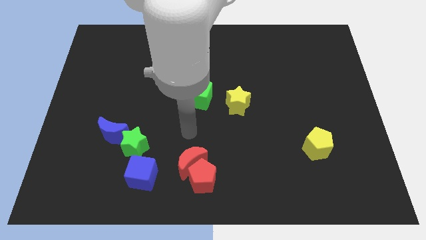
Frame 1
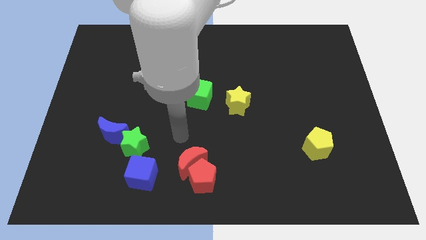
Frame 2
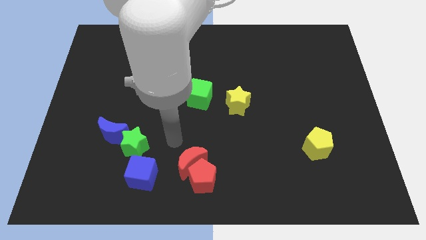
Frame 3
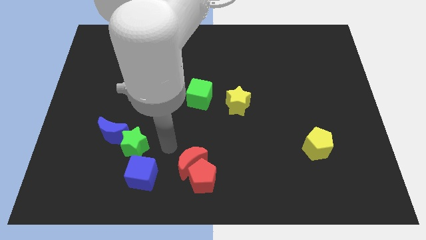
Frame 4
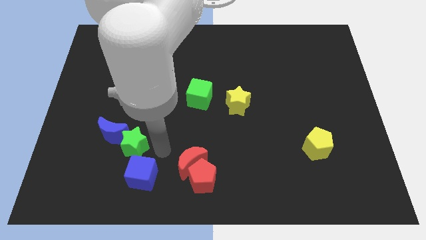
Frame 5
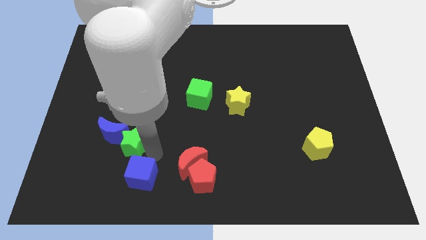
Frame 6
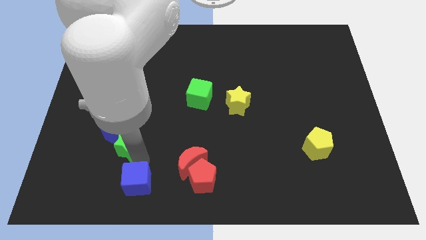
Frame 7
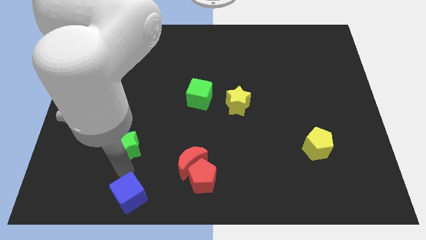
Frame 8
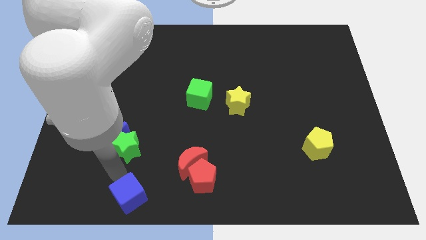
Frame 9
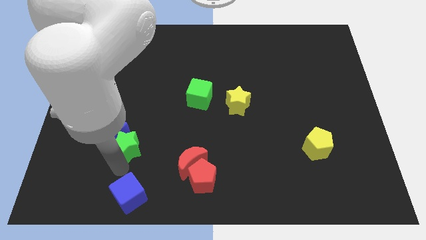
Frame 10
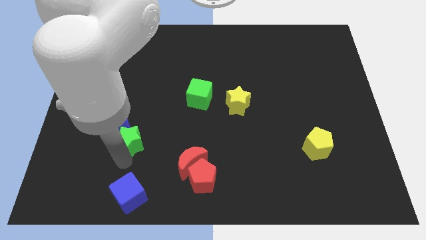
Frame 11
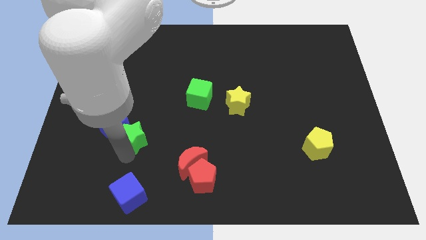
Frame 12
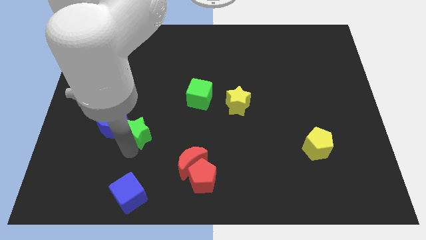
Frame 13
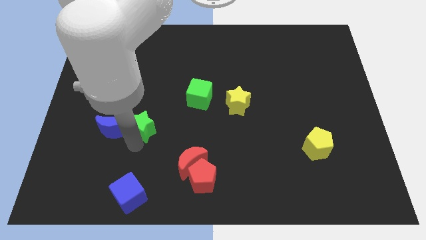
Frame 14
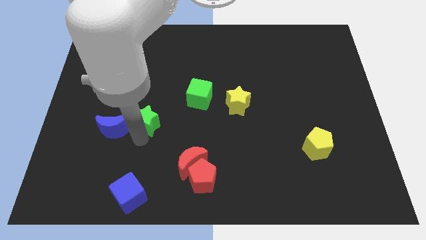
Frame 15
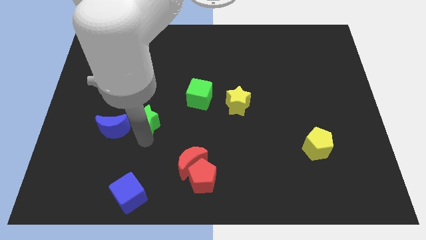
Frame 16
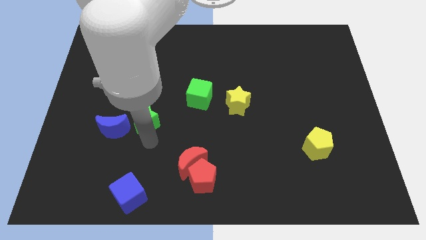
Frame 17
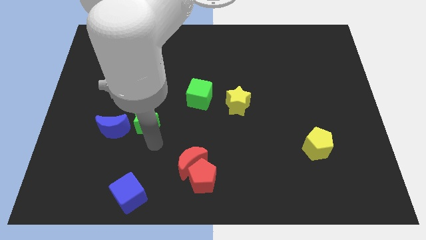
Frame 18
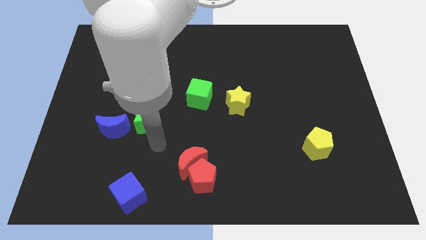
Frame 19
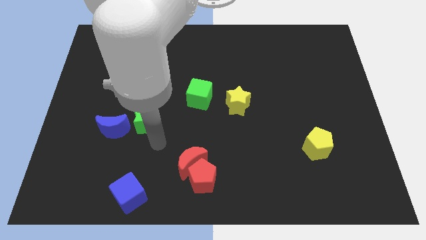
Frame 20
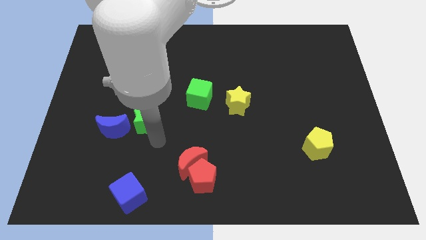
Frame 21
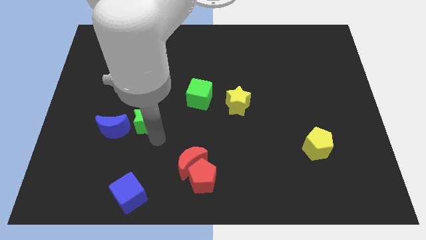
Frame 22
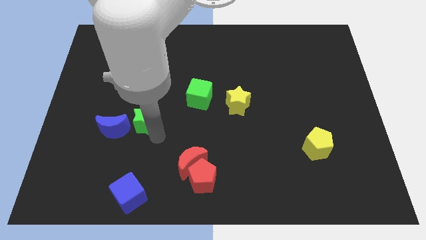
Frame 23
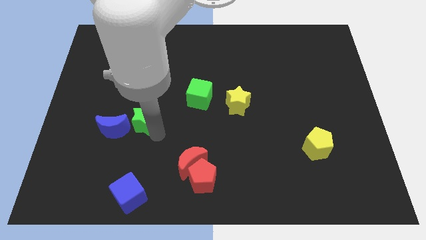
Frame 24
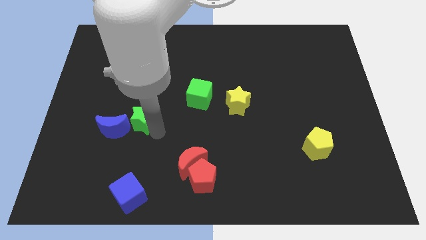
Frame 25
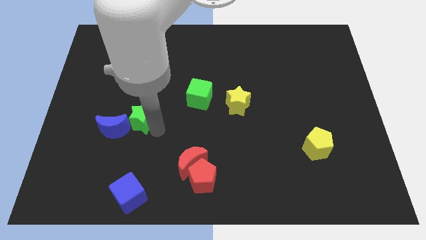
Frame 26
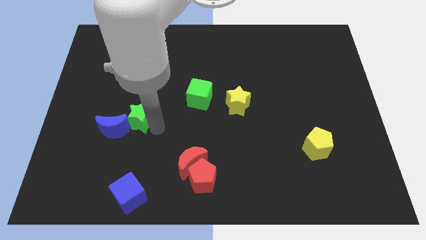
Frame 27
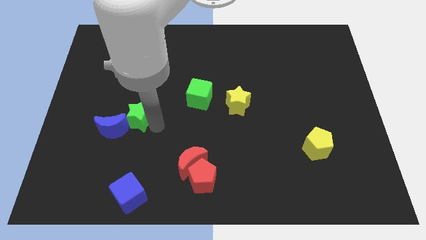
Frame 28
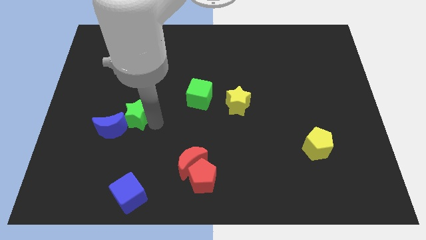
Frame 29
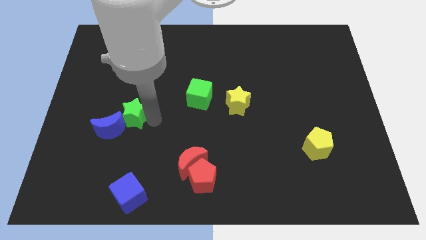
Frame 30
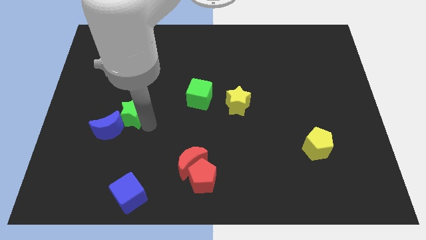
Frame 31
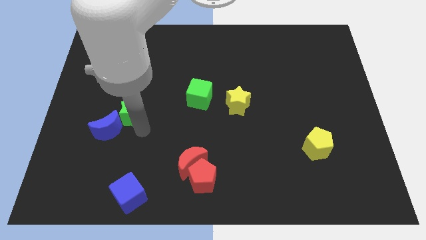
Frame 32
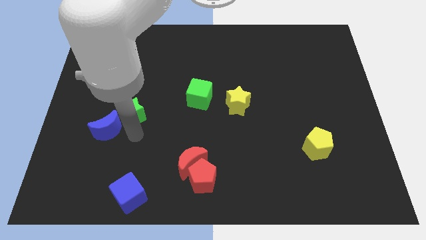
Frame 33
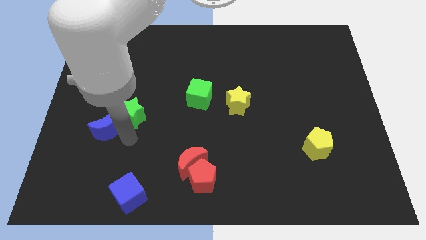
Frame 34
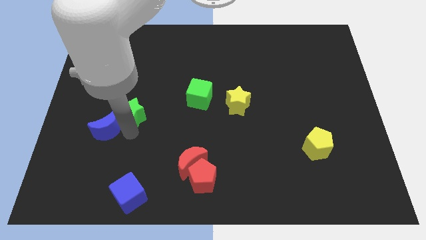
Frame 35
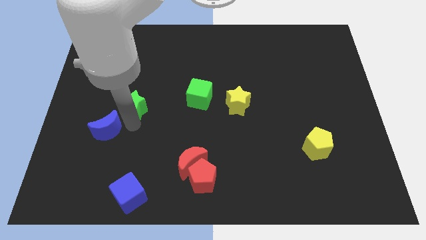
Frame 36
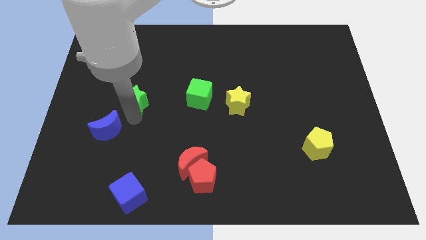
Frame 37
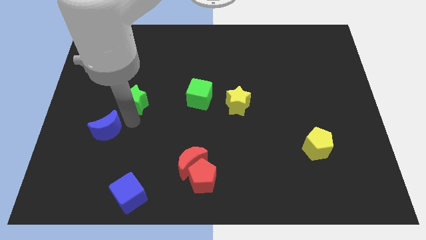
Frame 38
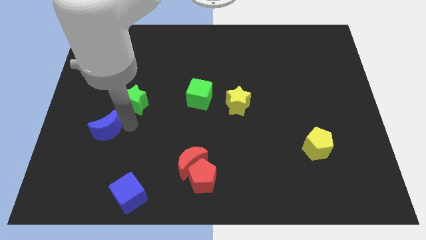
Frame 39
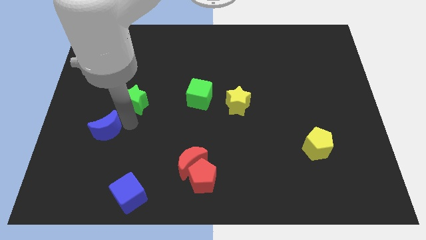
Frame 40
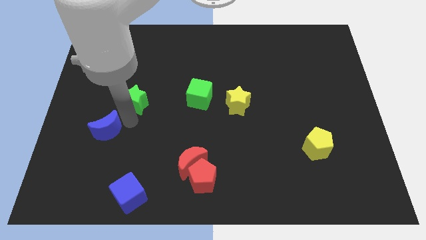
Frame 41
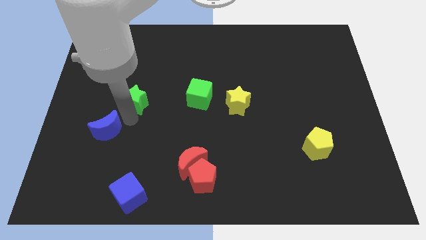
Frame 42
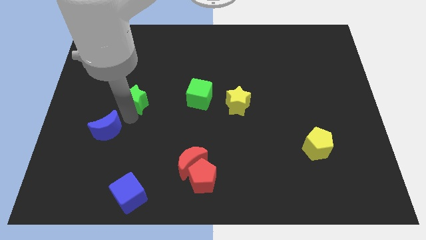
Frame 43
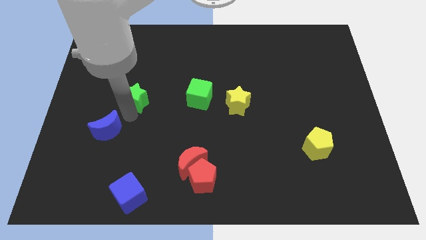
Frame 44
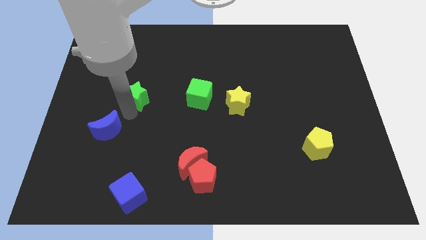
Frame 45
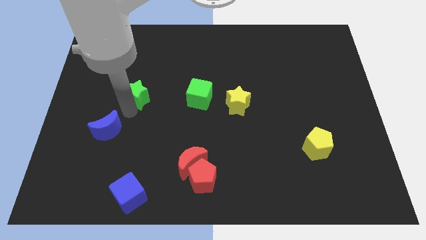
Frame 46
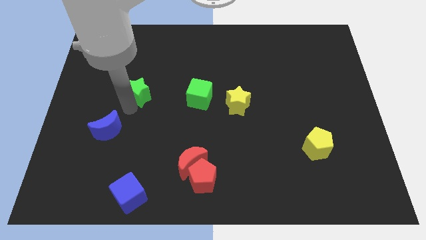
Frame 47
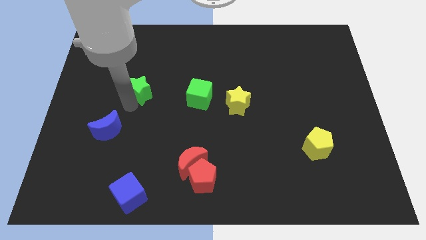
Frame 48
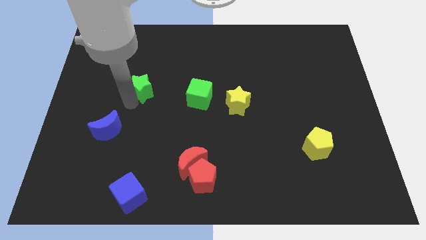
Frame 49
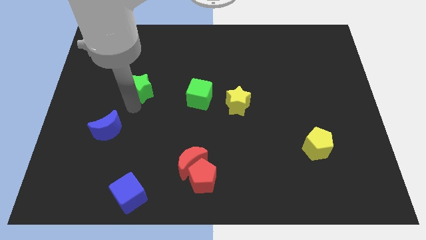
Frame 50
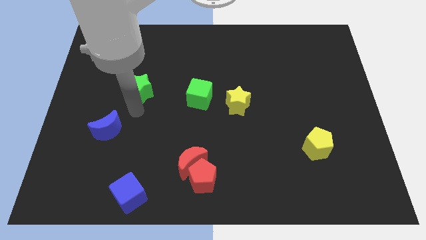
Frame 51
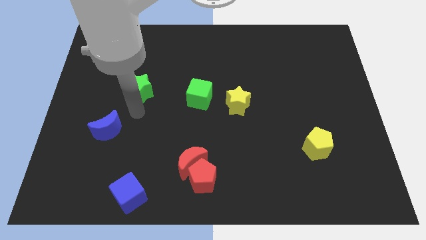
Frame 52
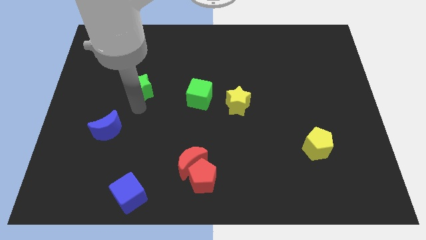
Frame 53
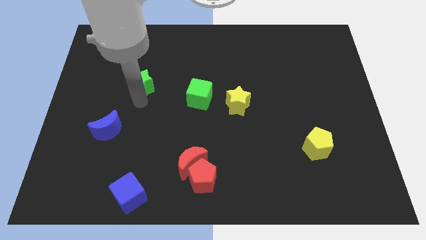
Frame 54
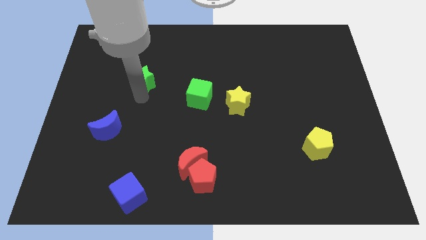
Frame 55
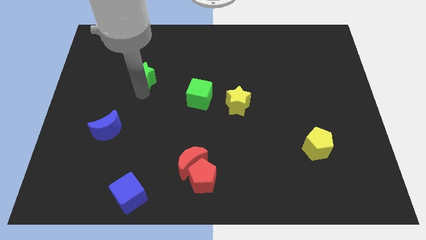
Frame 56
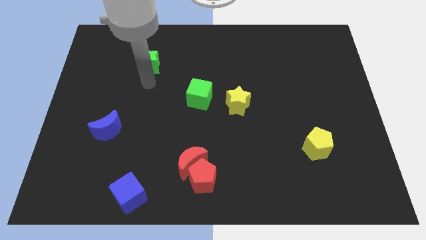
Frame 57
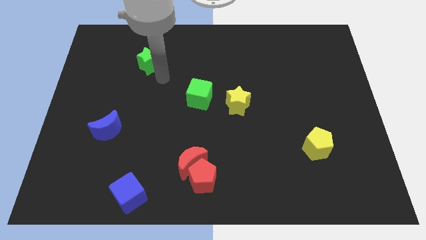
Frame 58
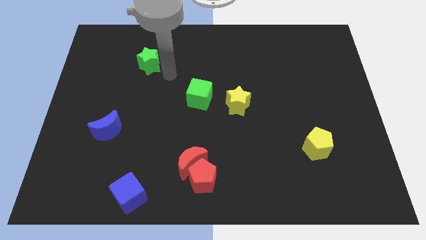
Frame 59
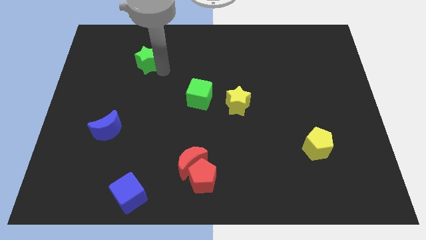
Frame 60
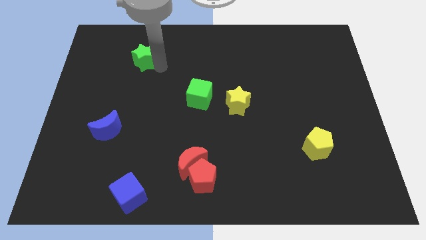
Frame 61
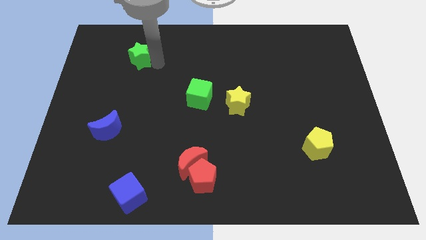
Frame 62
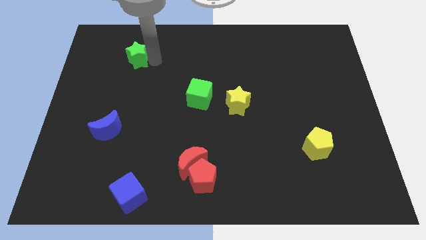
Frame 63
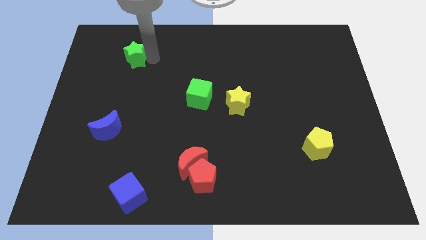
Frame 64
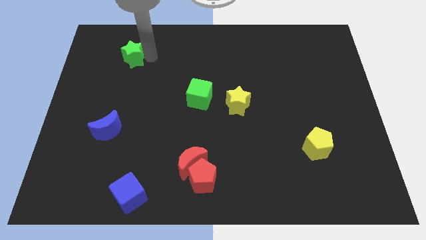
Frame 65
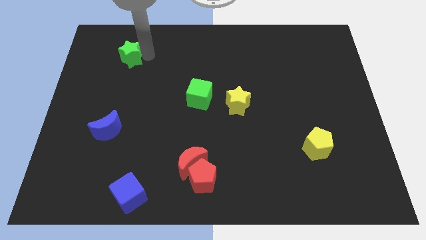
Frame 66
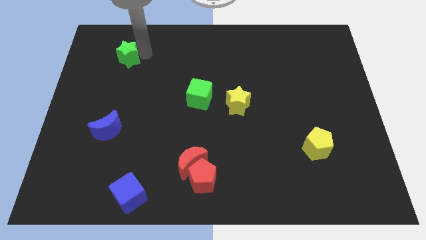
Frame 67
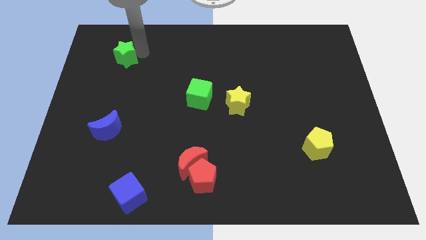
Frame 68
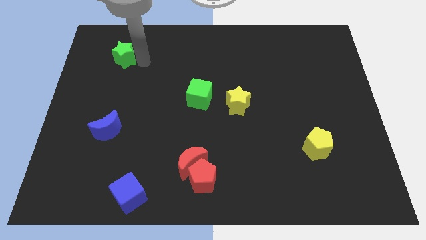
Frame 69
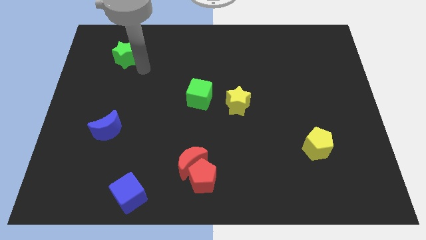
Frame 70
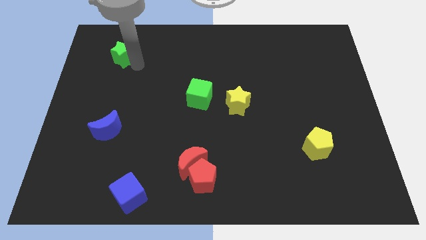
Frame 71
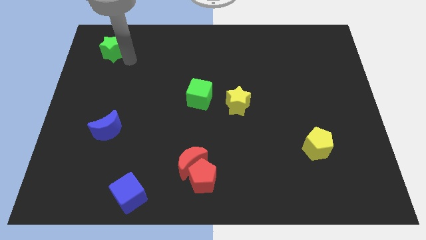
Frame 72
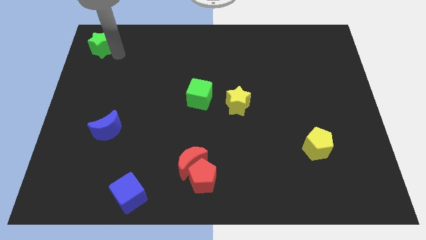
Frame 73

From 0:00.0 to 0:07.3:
move the green star to the top left of the board
